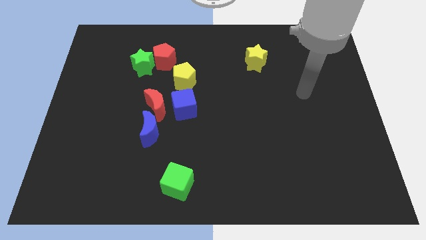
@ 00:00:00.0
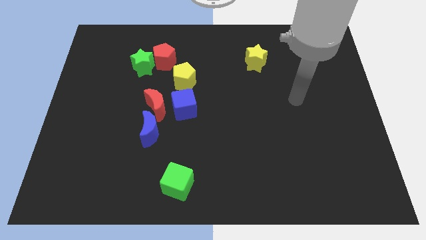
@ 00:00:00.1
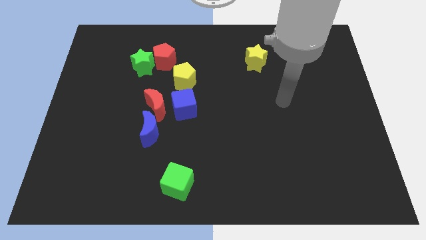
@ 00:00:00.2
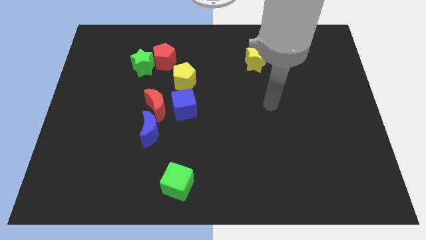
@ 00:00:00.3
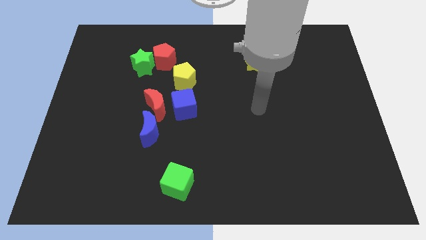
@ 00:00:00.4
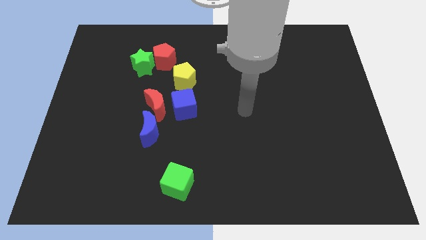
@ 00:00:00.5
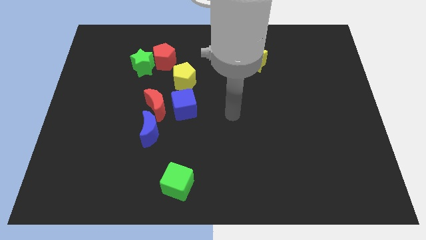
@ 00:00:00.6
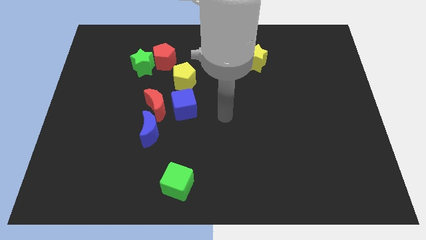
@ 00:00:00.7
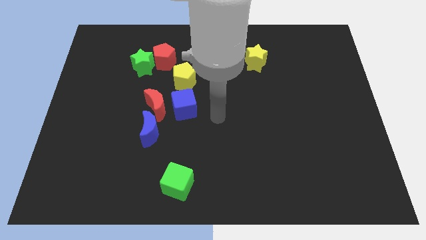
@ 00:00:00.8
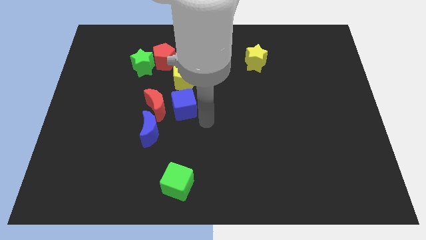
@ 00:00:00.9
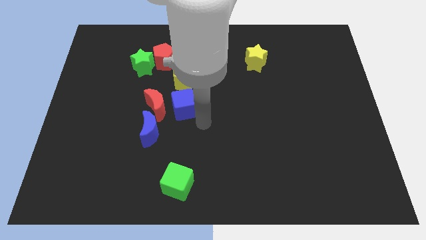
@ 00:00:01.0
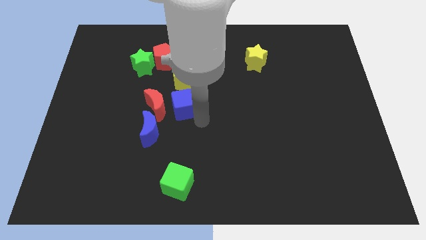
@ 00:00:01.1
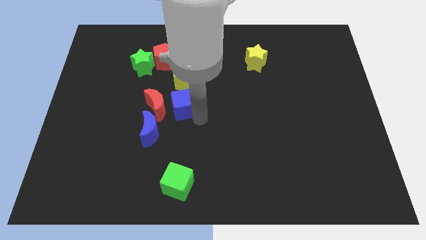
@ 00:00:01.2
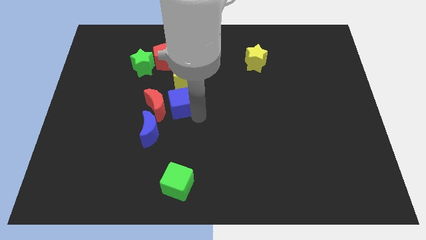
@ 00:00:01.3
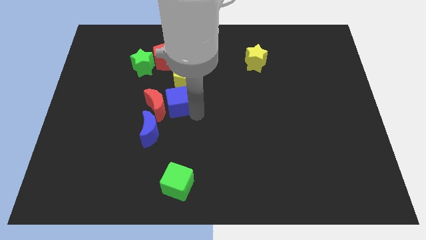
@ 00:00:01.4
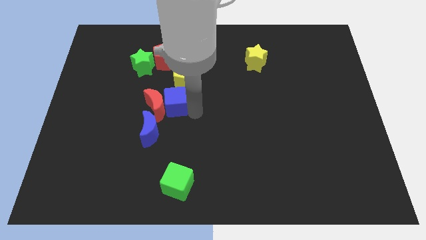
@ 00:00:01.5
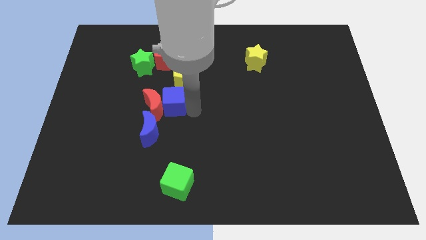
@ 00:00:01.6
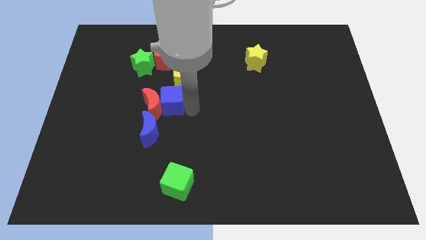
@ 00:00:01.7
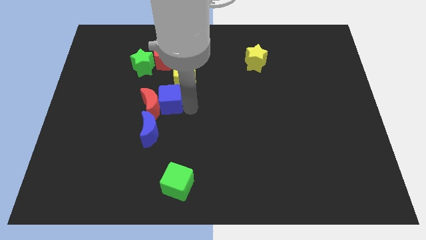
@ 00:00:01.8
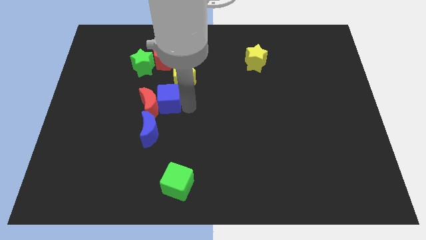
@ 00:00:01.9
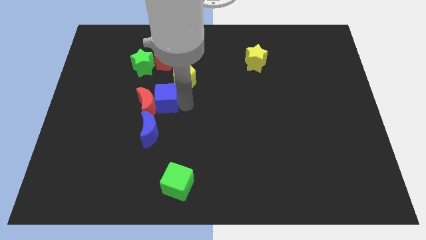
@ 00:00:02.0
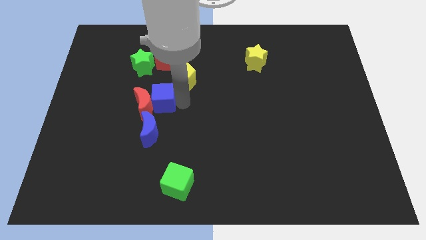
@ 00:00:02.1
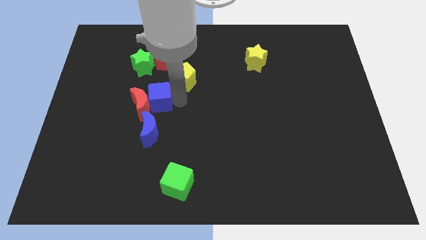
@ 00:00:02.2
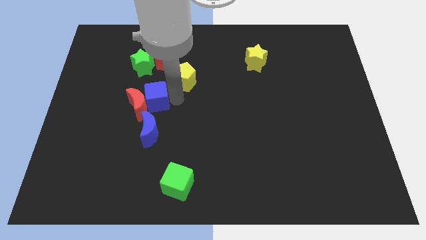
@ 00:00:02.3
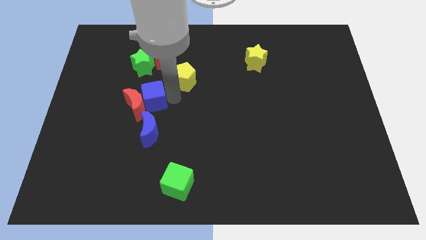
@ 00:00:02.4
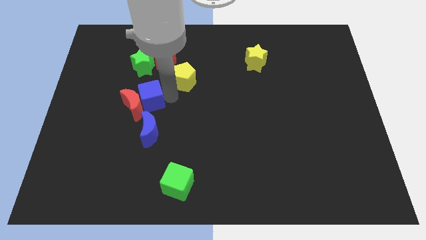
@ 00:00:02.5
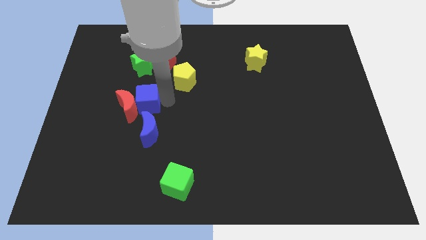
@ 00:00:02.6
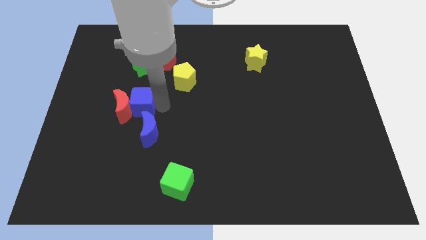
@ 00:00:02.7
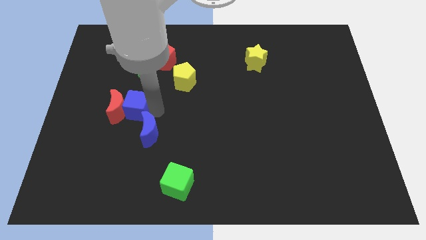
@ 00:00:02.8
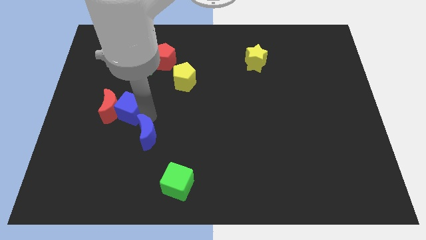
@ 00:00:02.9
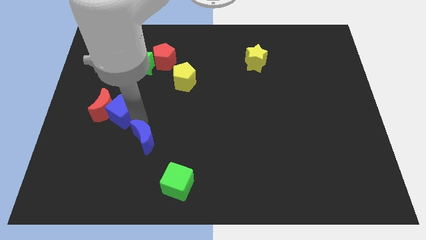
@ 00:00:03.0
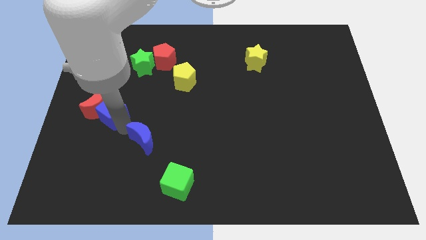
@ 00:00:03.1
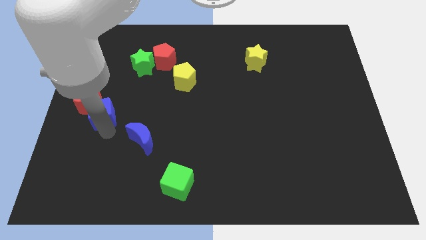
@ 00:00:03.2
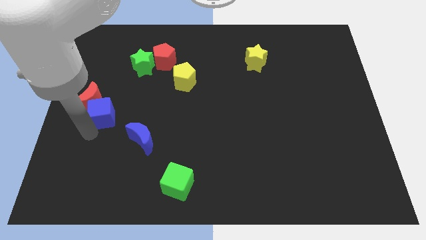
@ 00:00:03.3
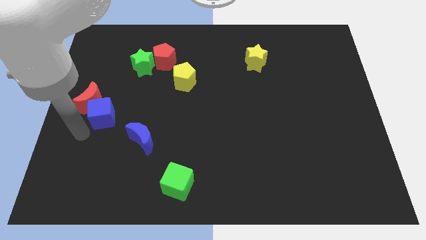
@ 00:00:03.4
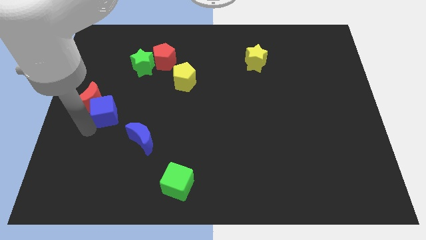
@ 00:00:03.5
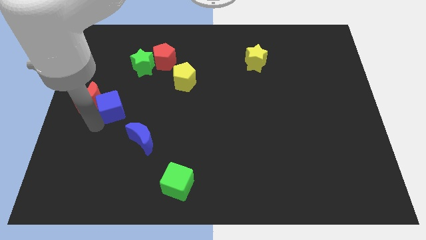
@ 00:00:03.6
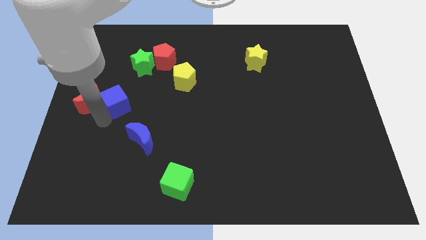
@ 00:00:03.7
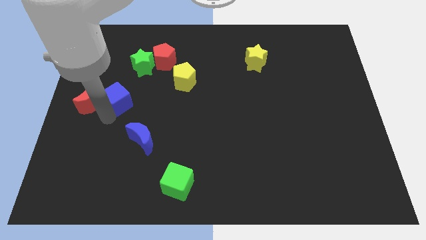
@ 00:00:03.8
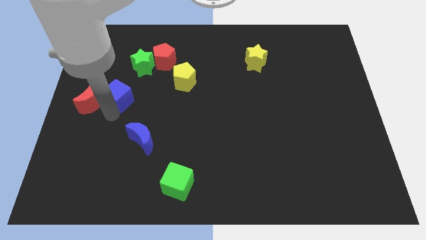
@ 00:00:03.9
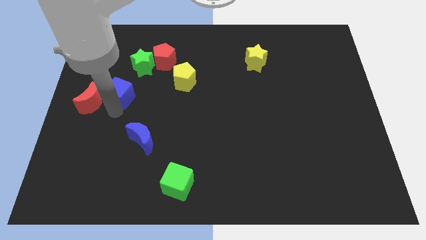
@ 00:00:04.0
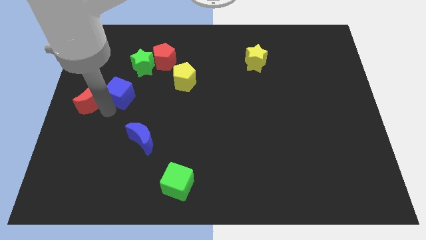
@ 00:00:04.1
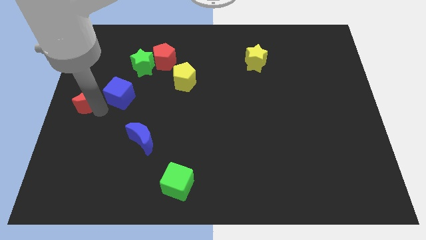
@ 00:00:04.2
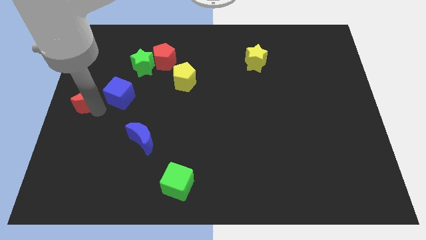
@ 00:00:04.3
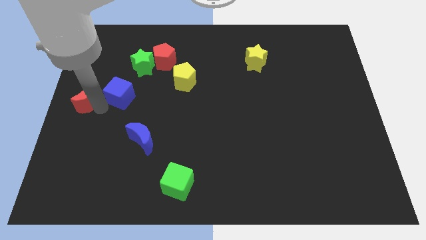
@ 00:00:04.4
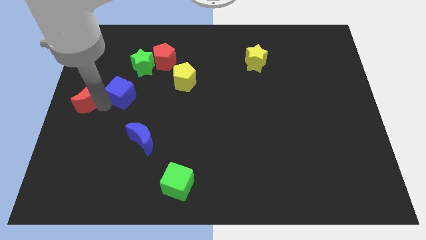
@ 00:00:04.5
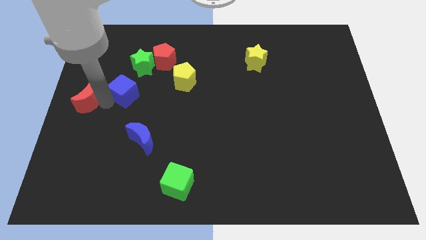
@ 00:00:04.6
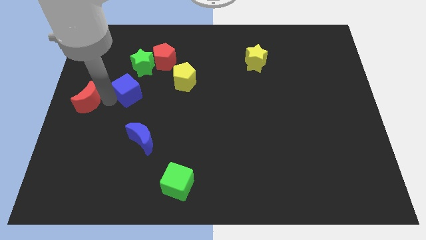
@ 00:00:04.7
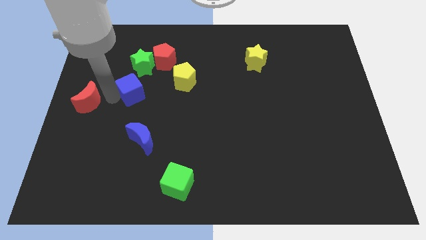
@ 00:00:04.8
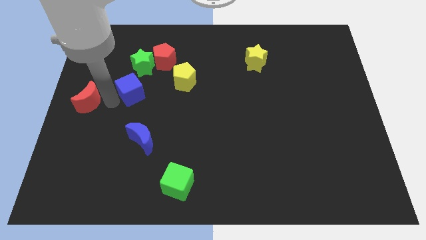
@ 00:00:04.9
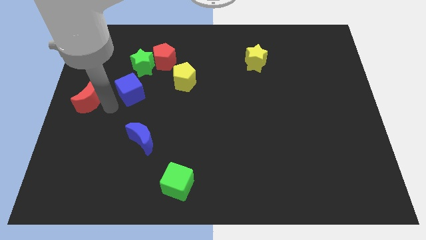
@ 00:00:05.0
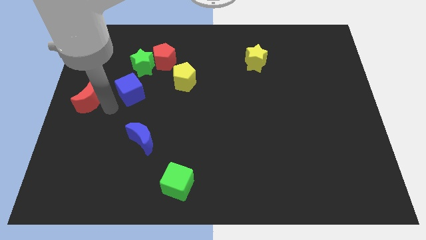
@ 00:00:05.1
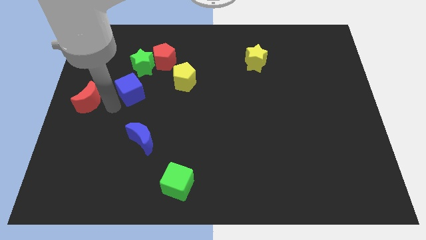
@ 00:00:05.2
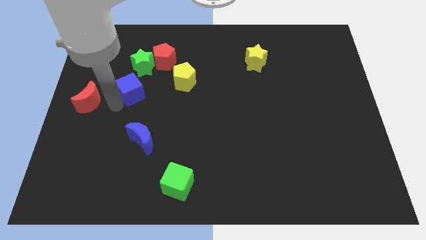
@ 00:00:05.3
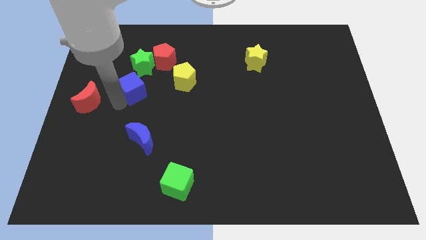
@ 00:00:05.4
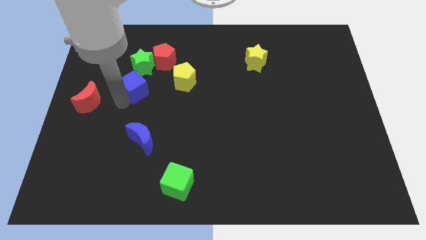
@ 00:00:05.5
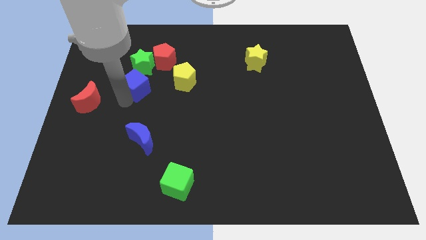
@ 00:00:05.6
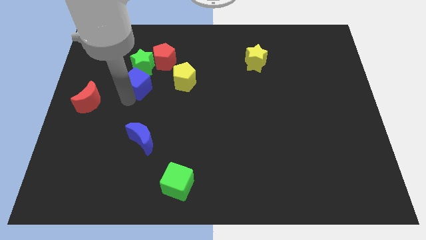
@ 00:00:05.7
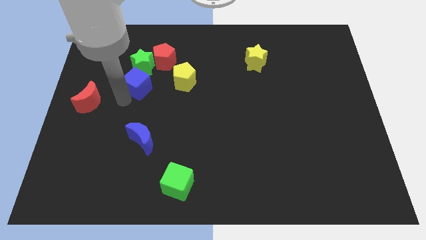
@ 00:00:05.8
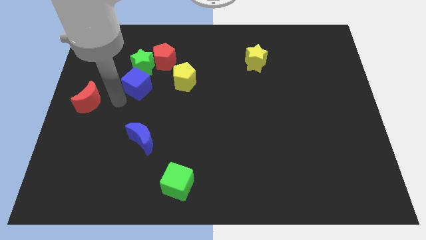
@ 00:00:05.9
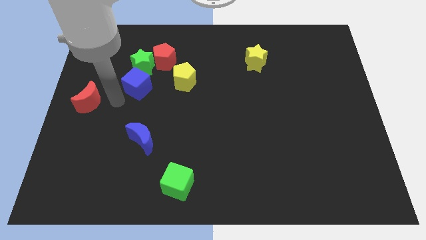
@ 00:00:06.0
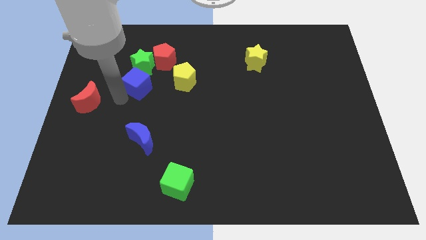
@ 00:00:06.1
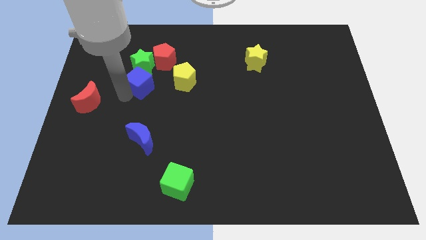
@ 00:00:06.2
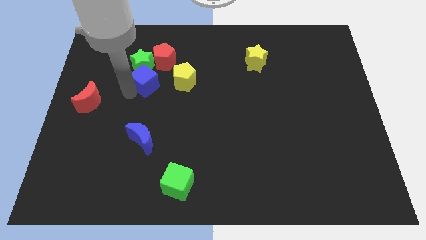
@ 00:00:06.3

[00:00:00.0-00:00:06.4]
slide the blue cube next to the green star

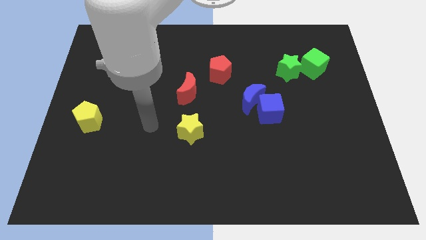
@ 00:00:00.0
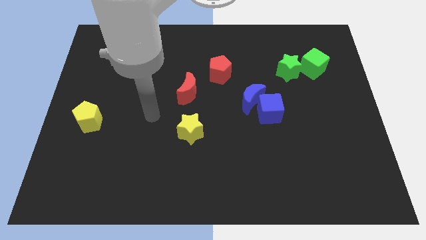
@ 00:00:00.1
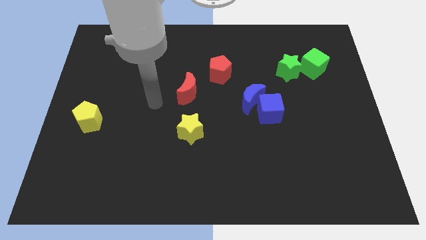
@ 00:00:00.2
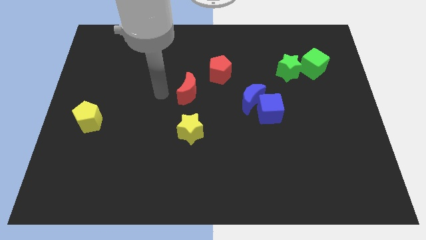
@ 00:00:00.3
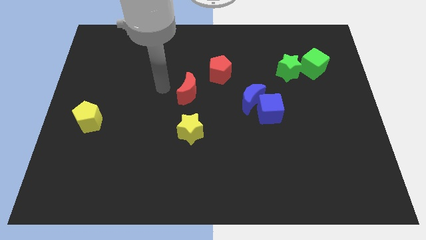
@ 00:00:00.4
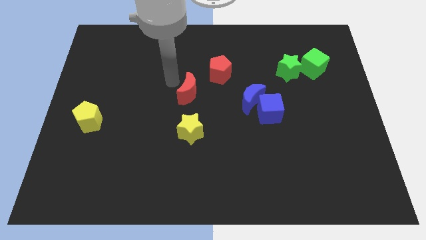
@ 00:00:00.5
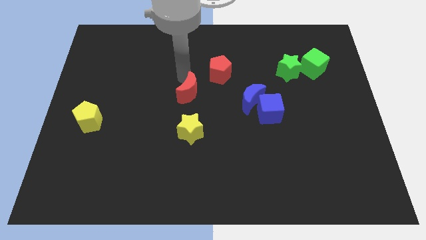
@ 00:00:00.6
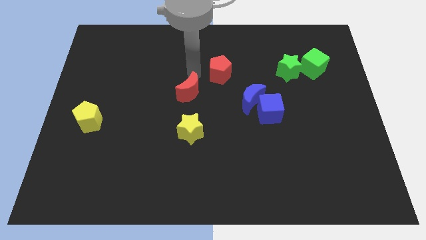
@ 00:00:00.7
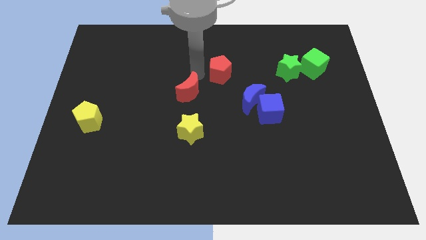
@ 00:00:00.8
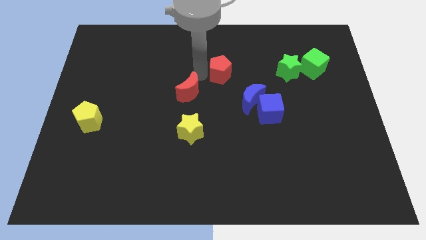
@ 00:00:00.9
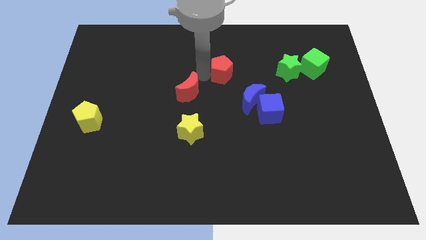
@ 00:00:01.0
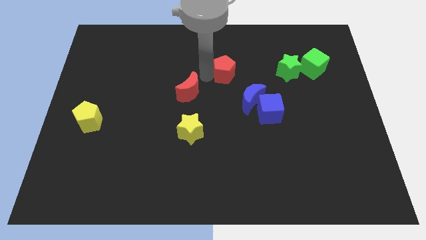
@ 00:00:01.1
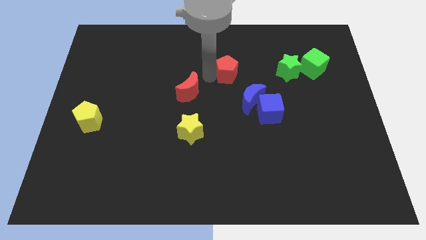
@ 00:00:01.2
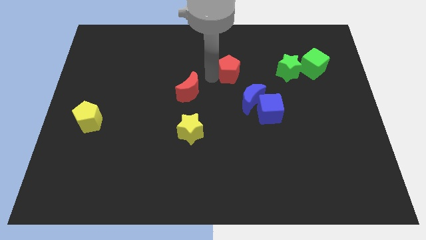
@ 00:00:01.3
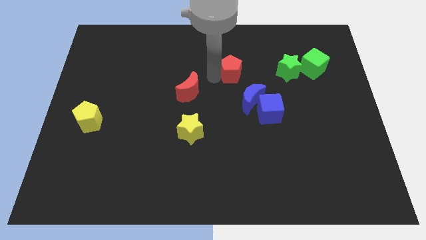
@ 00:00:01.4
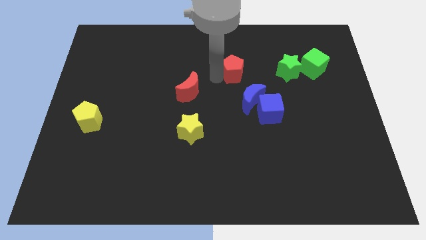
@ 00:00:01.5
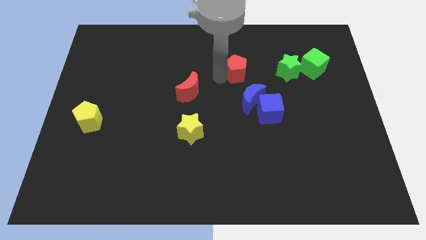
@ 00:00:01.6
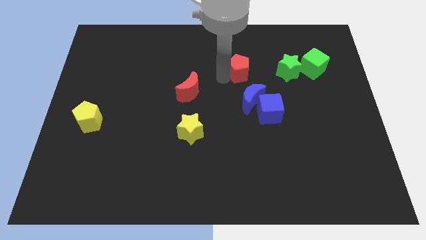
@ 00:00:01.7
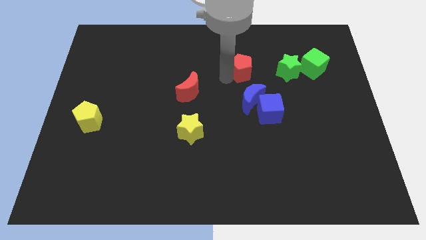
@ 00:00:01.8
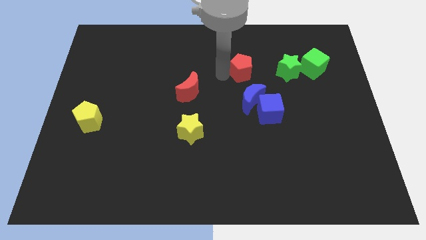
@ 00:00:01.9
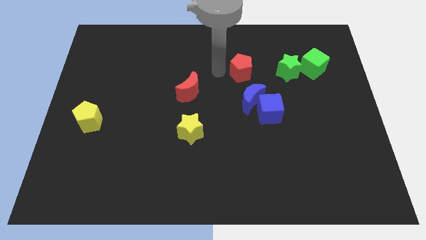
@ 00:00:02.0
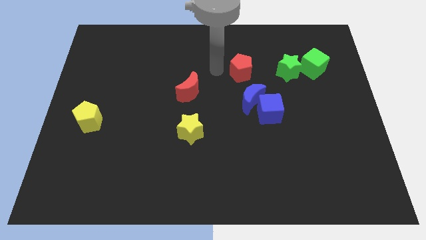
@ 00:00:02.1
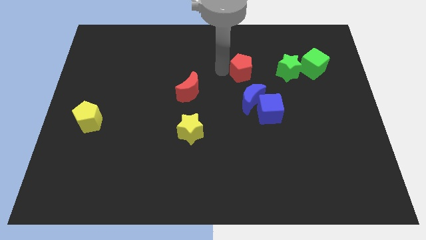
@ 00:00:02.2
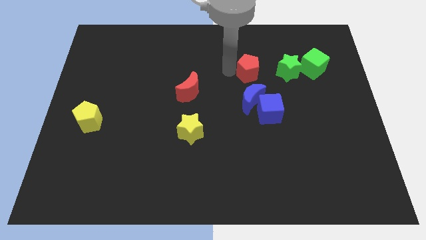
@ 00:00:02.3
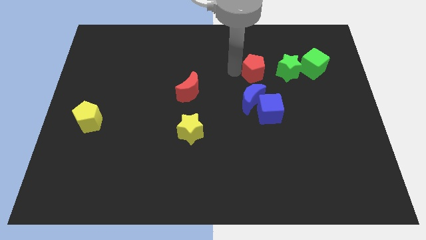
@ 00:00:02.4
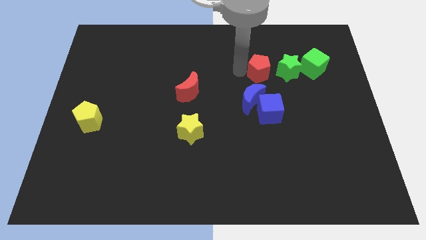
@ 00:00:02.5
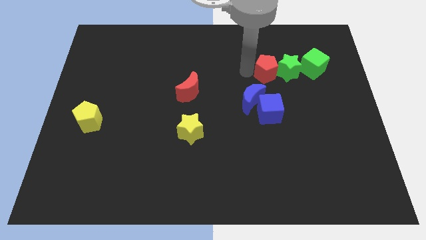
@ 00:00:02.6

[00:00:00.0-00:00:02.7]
slide the red pentagon close to the green star
